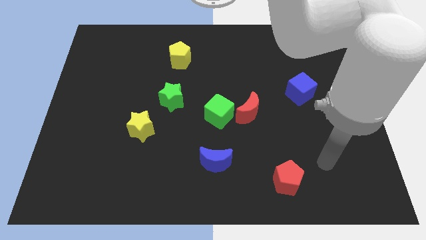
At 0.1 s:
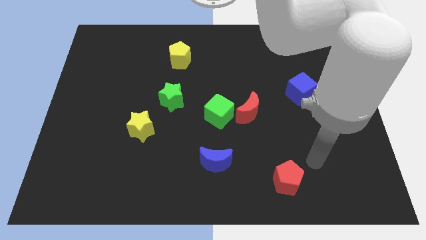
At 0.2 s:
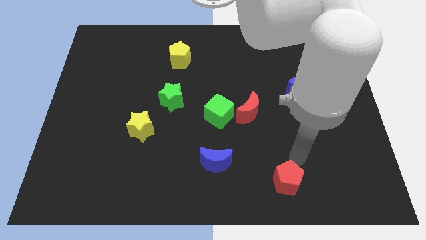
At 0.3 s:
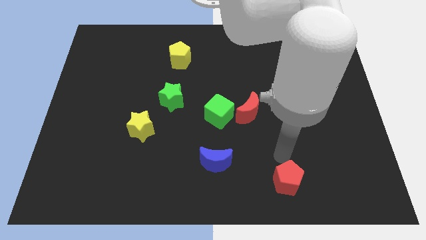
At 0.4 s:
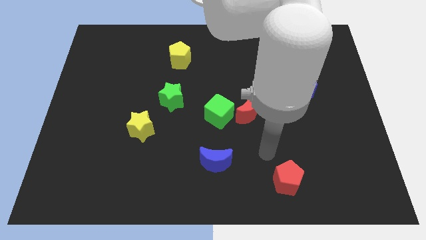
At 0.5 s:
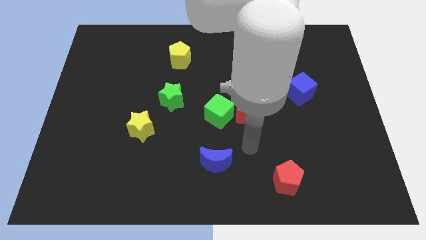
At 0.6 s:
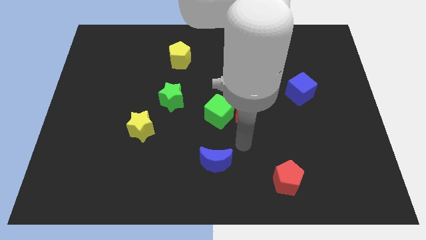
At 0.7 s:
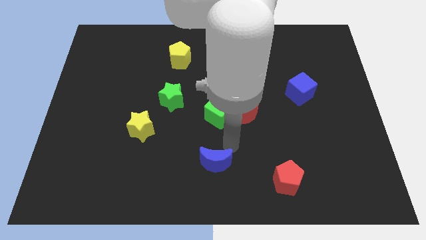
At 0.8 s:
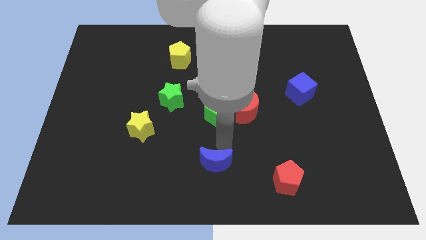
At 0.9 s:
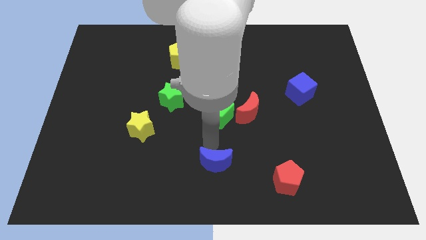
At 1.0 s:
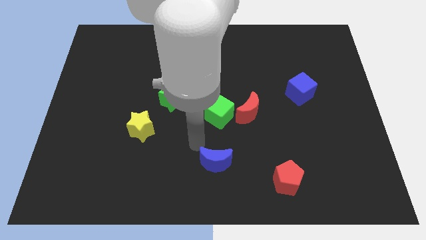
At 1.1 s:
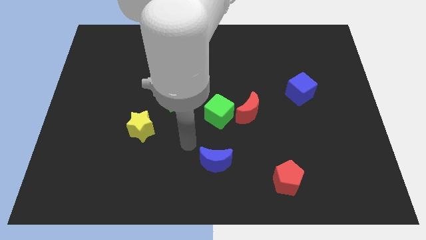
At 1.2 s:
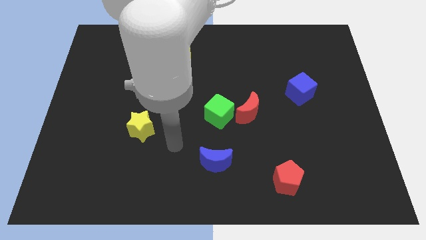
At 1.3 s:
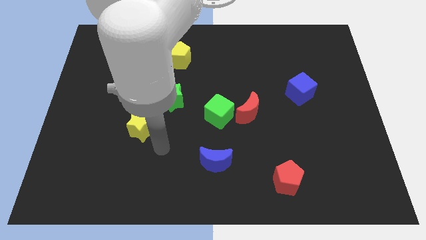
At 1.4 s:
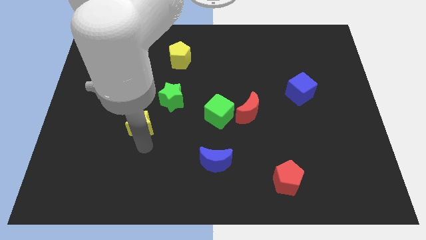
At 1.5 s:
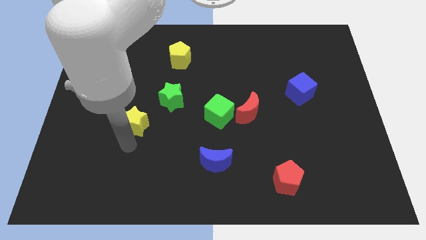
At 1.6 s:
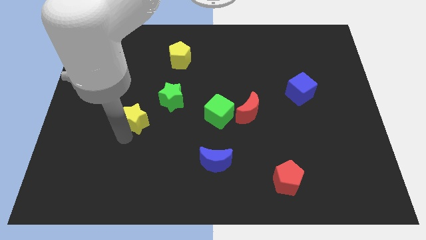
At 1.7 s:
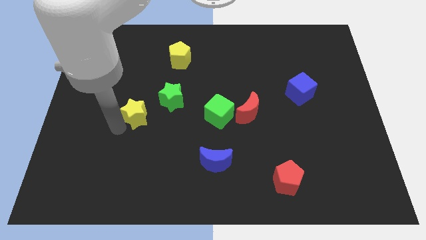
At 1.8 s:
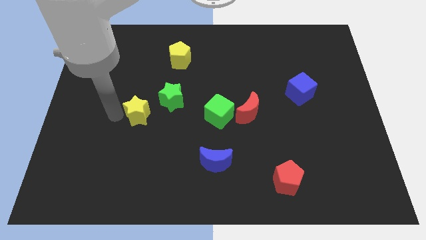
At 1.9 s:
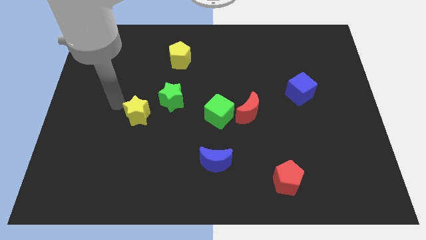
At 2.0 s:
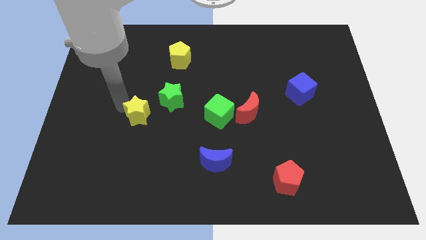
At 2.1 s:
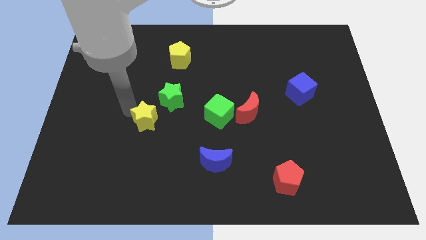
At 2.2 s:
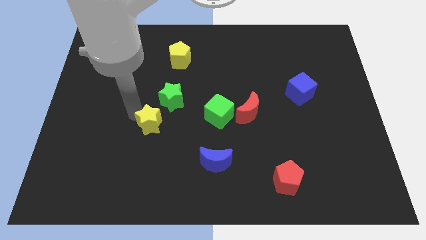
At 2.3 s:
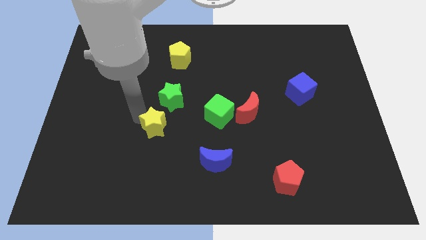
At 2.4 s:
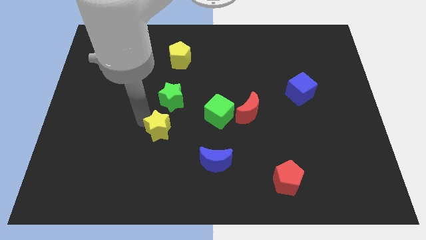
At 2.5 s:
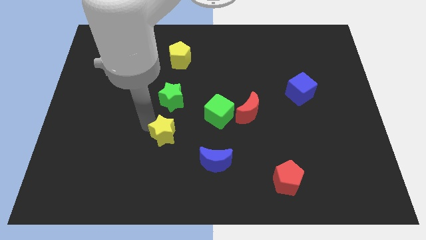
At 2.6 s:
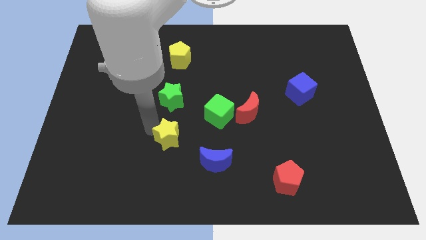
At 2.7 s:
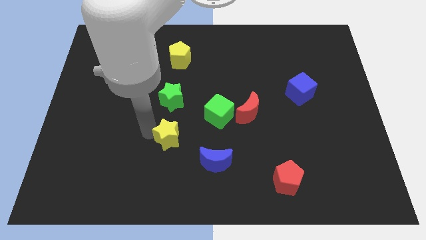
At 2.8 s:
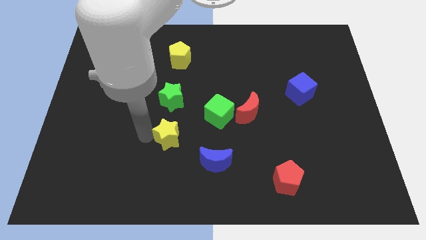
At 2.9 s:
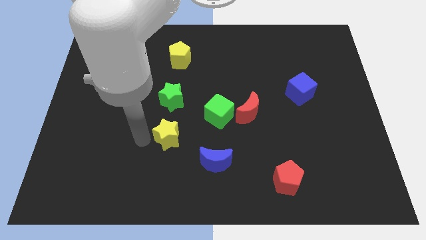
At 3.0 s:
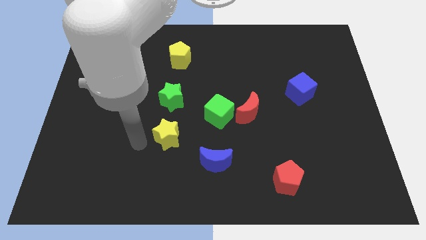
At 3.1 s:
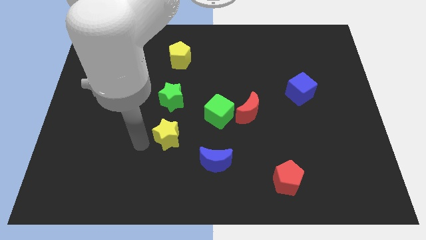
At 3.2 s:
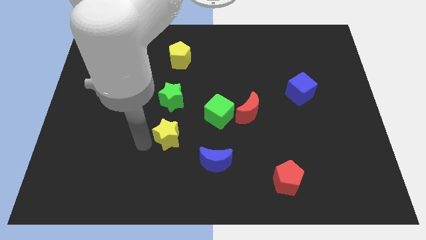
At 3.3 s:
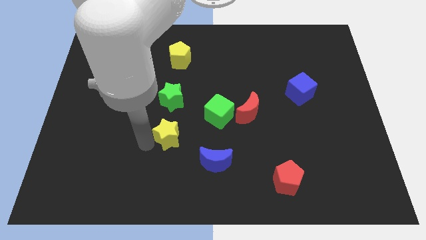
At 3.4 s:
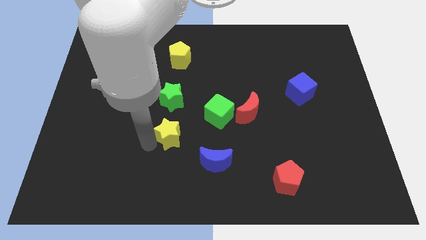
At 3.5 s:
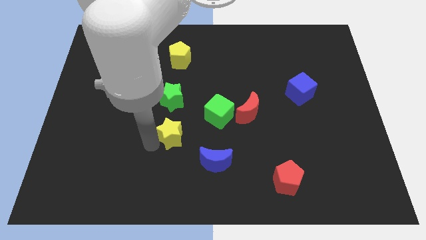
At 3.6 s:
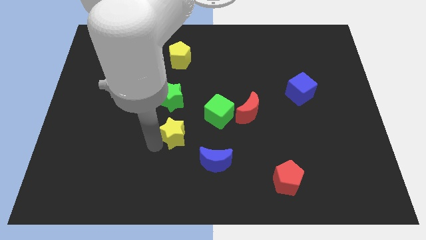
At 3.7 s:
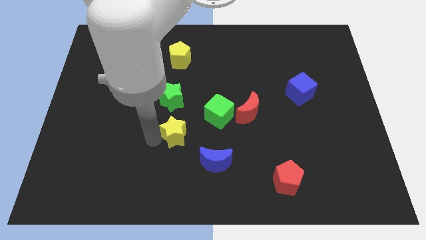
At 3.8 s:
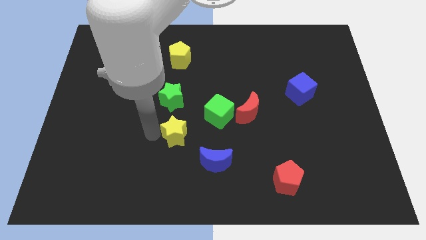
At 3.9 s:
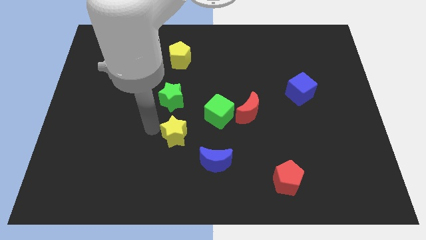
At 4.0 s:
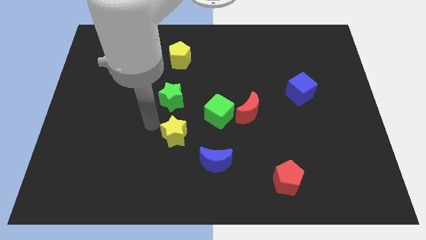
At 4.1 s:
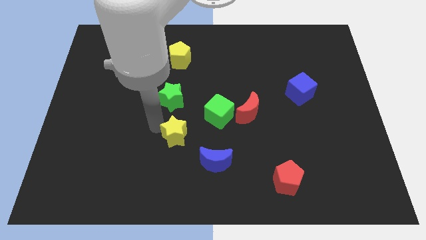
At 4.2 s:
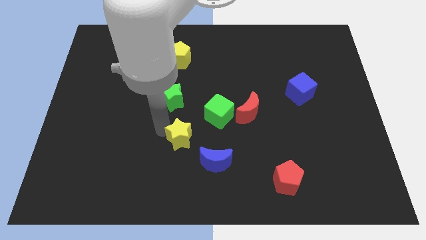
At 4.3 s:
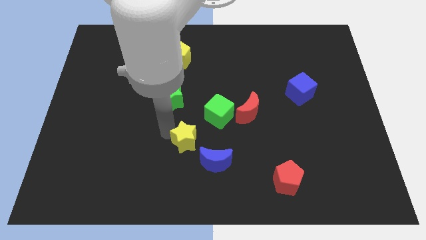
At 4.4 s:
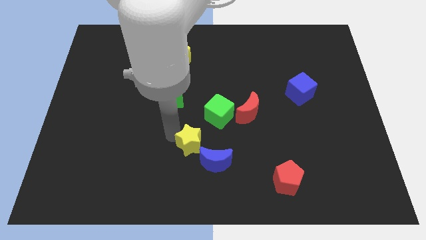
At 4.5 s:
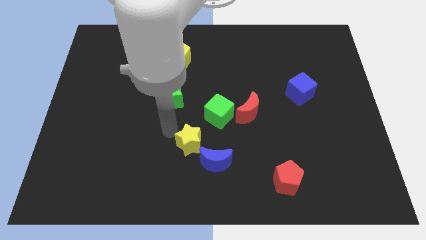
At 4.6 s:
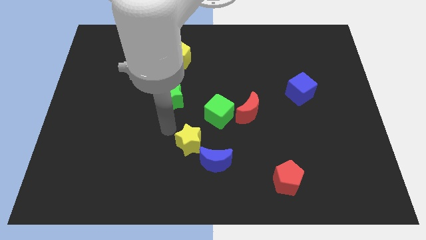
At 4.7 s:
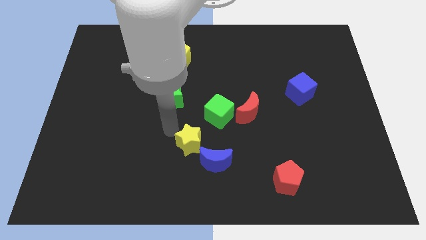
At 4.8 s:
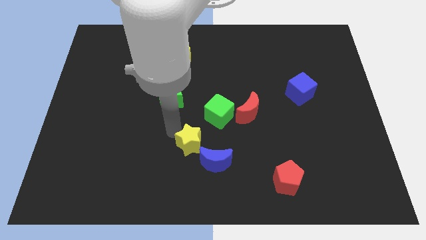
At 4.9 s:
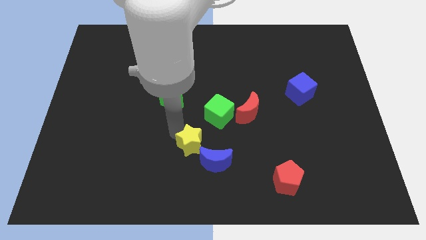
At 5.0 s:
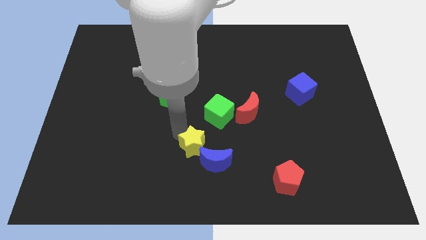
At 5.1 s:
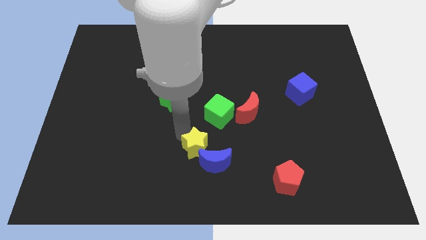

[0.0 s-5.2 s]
move the yellow star to the blue moon
